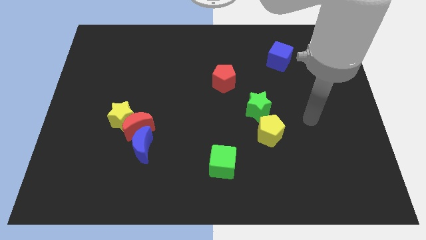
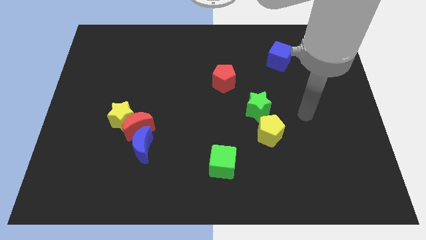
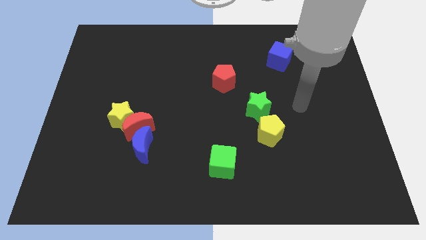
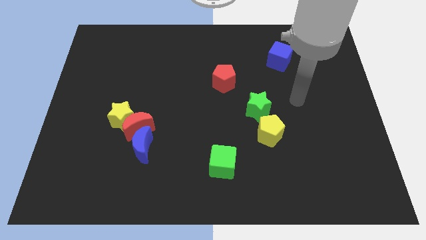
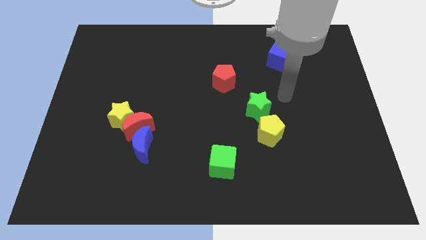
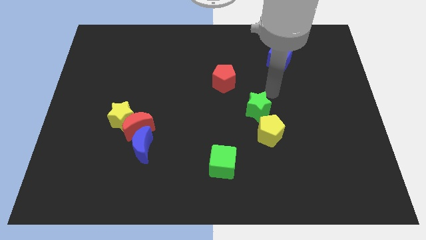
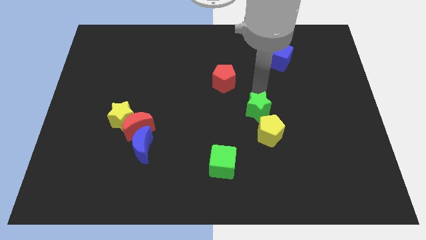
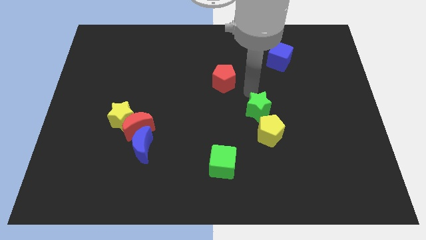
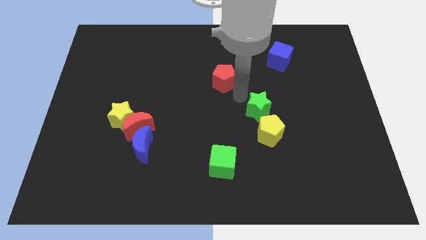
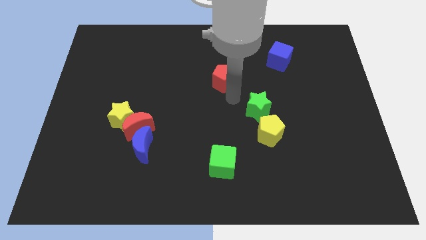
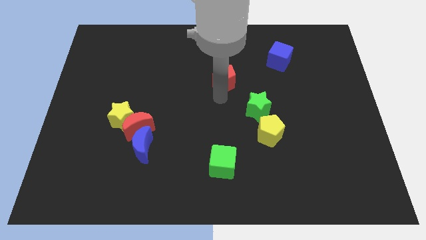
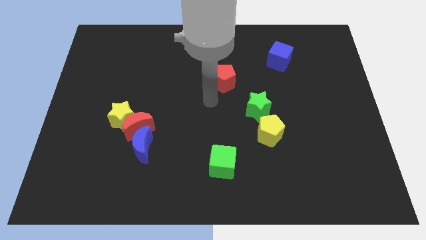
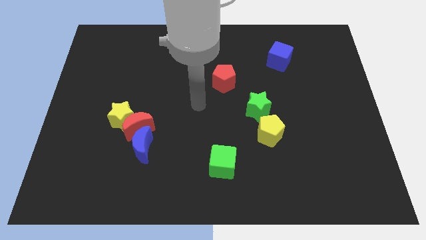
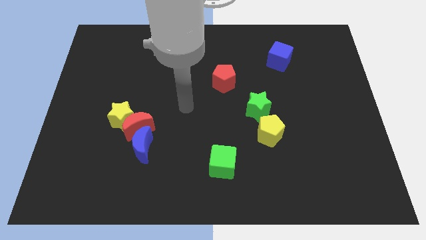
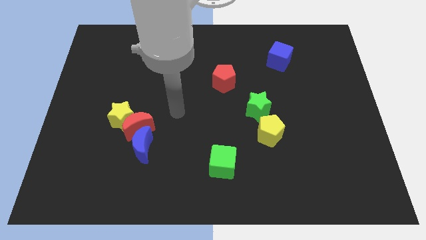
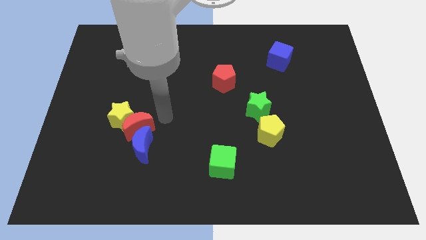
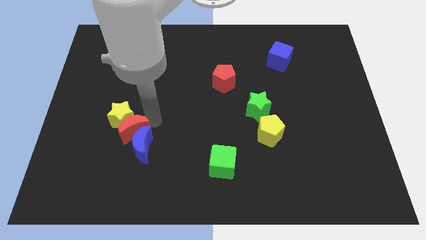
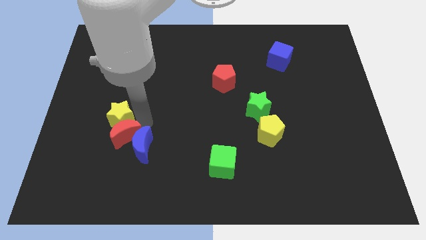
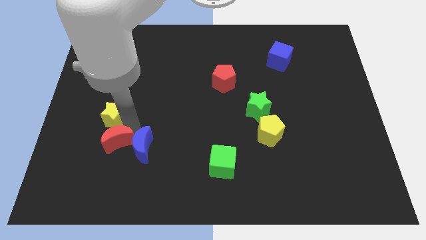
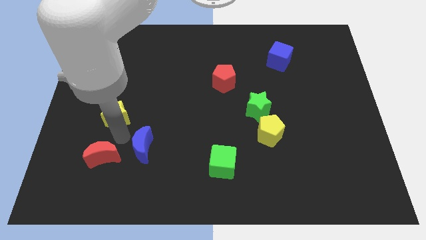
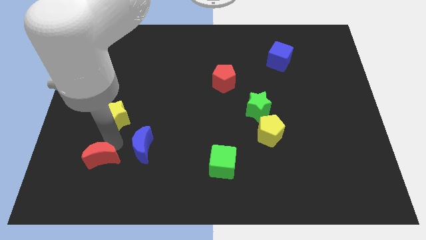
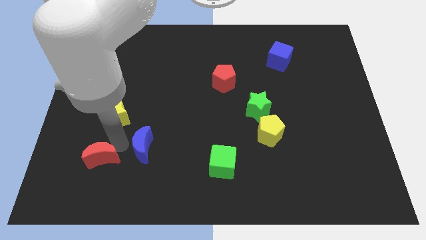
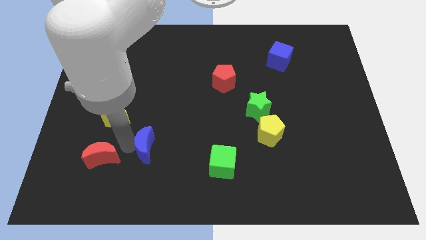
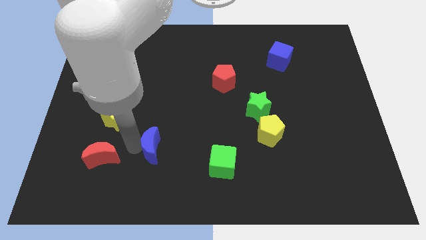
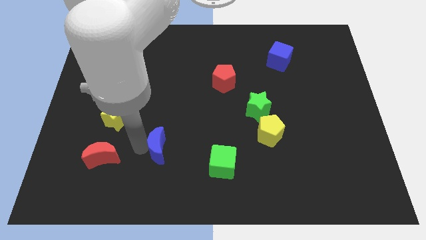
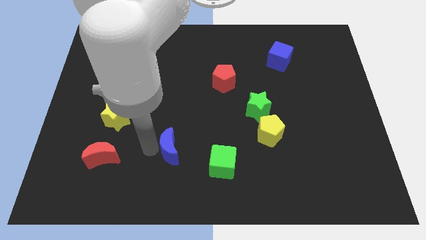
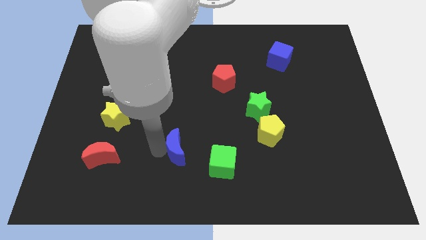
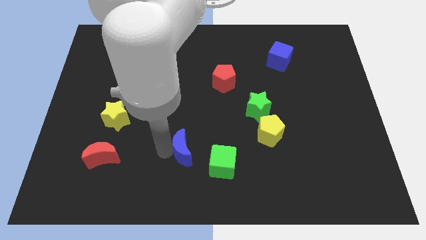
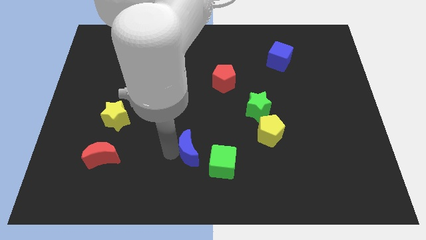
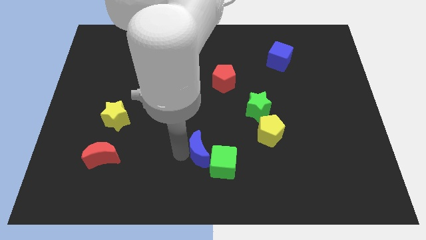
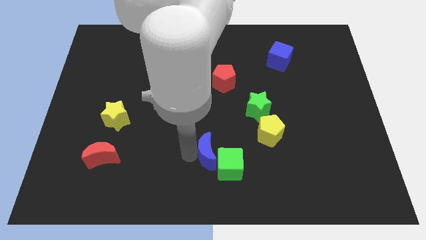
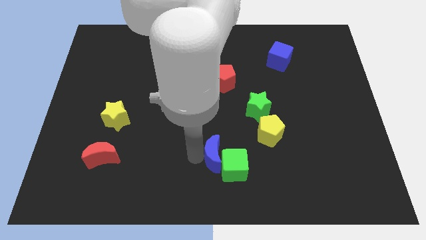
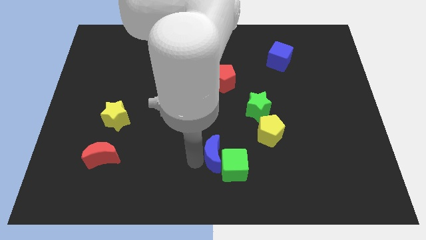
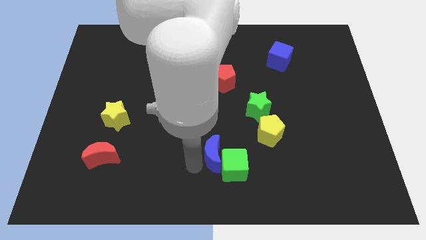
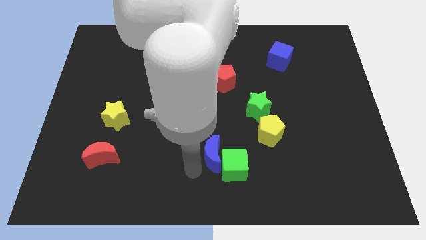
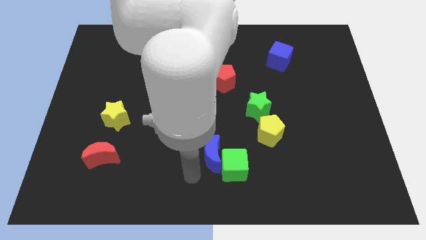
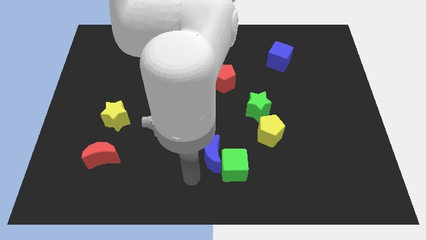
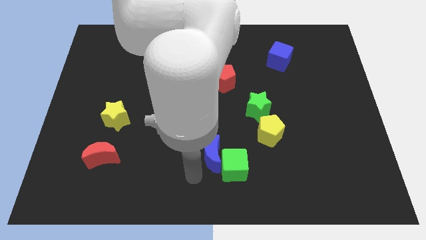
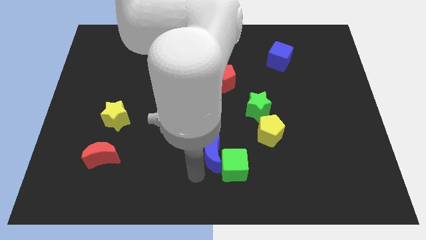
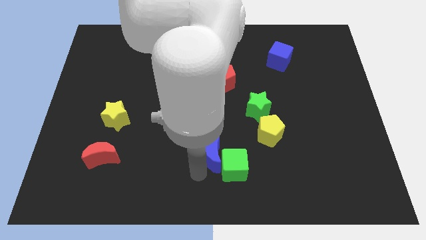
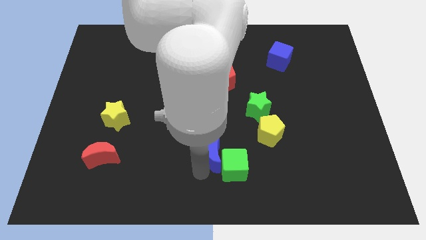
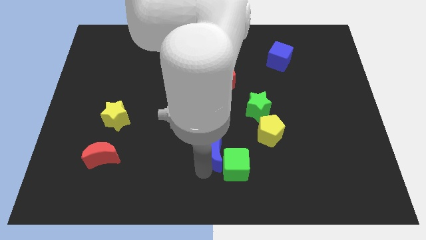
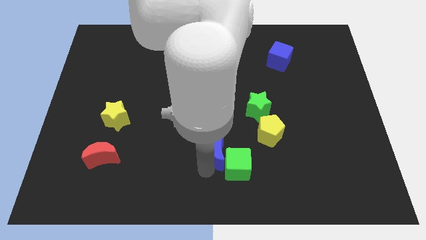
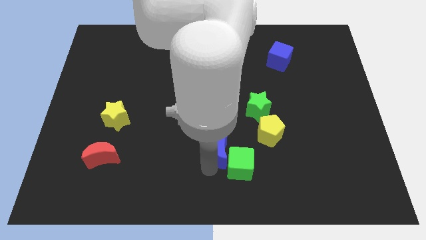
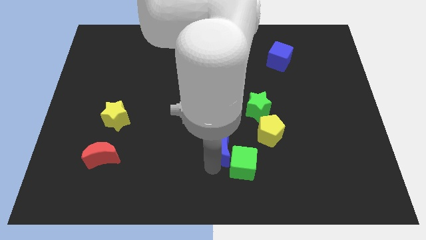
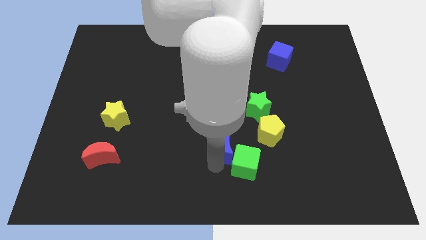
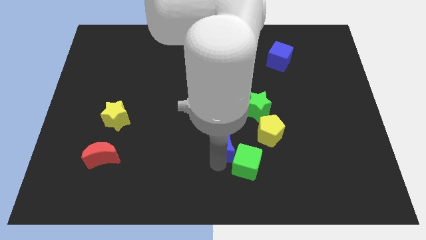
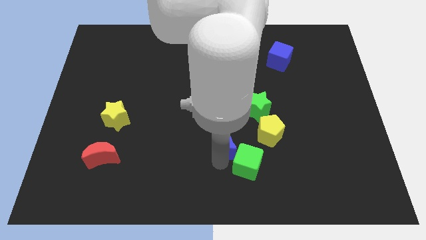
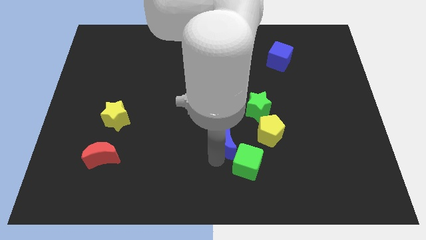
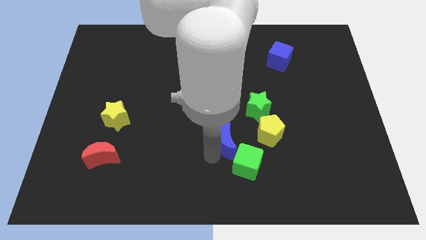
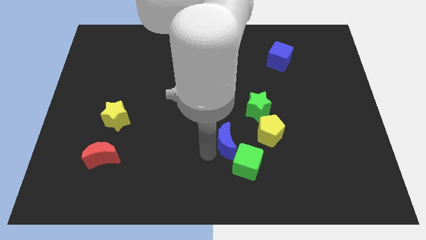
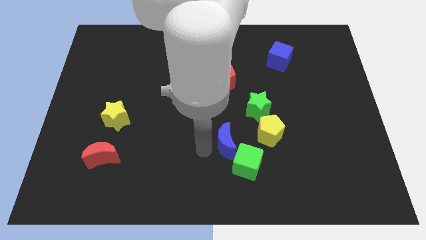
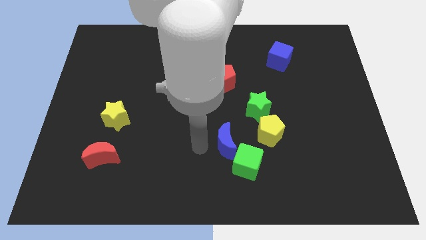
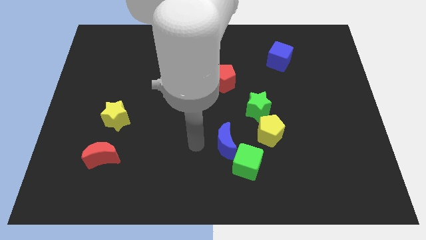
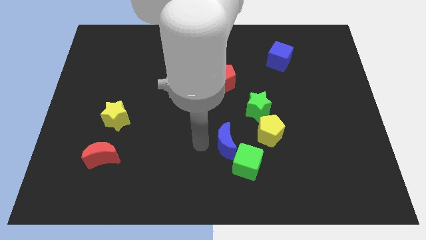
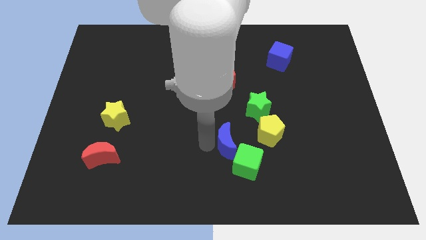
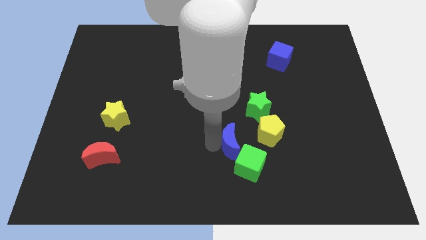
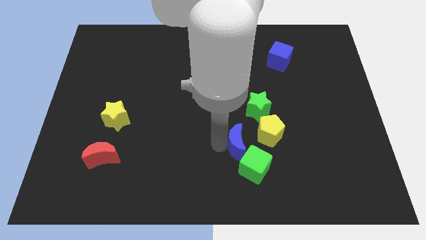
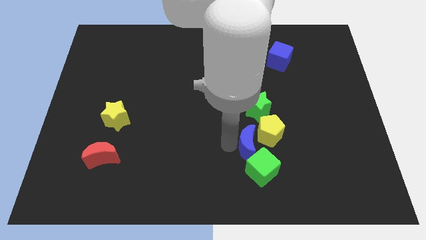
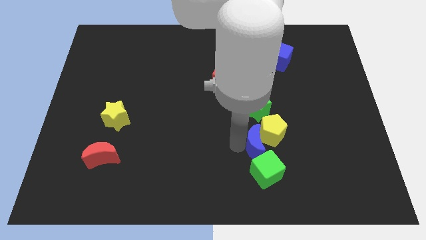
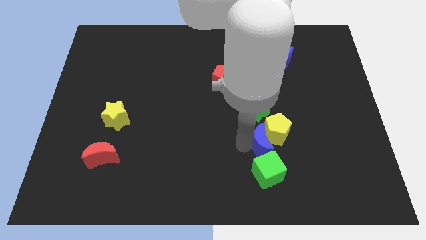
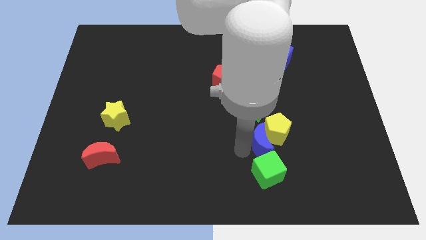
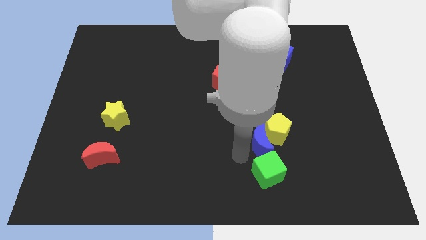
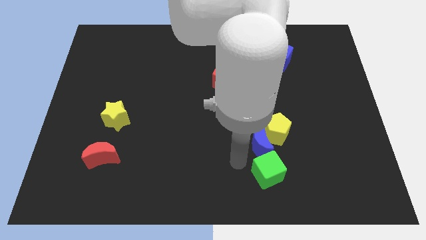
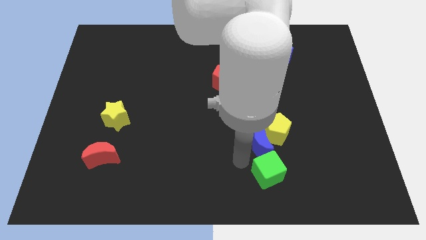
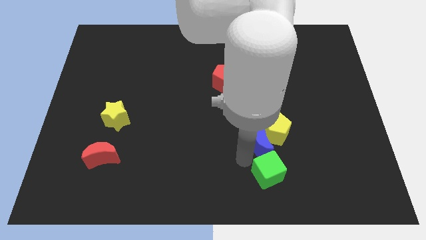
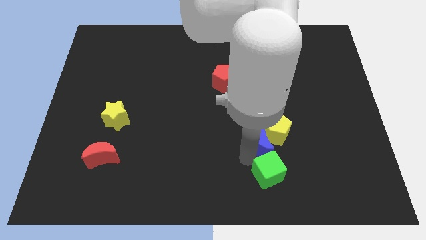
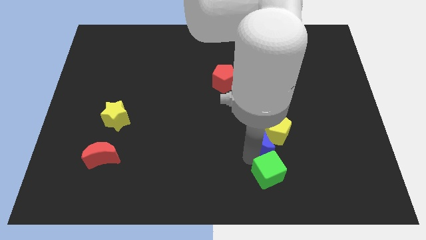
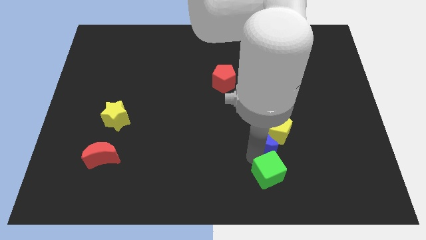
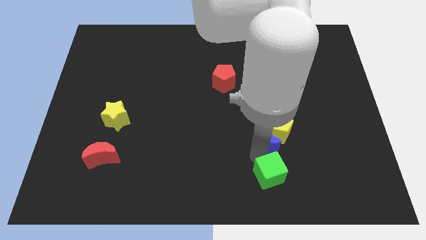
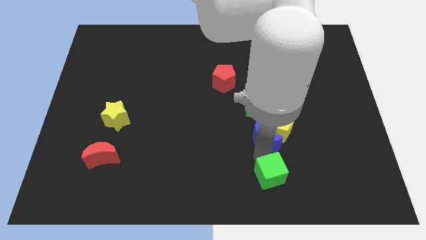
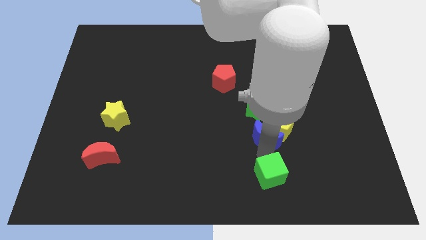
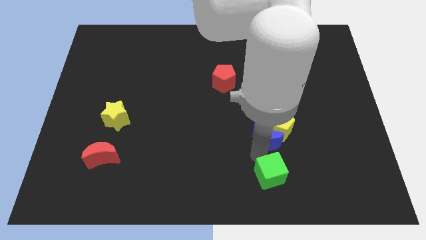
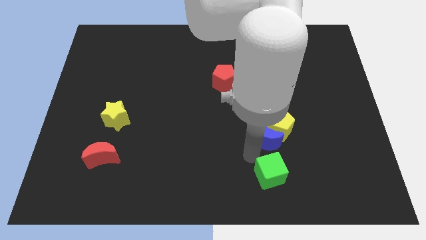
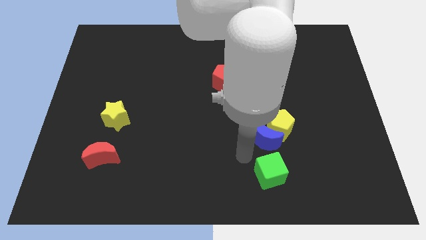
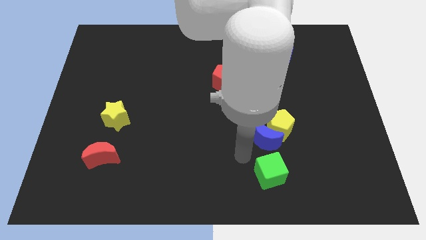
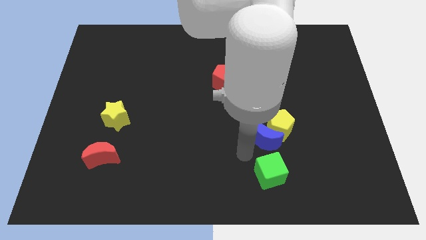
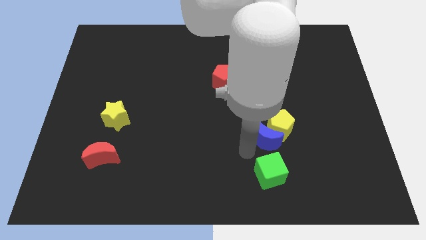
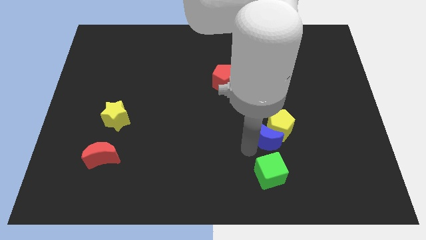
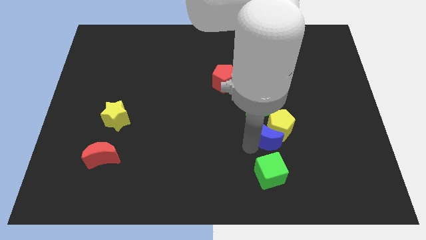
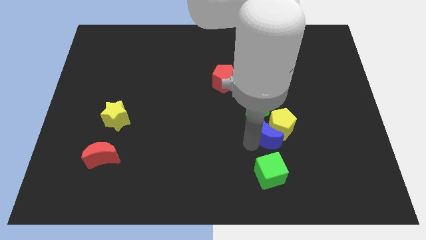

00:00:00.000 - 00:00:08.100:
put the blue moon to the bottom right of the green star
